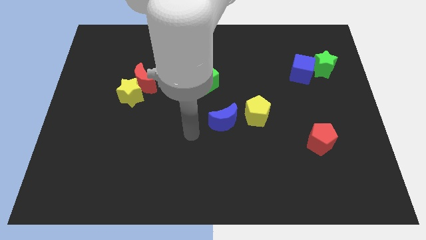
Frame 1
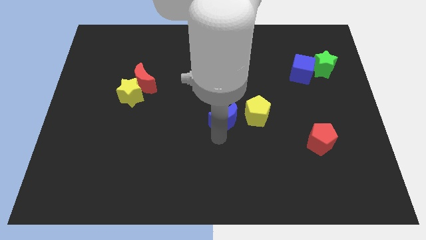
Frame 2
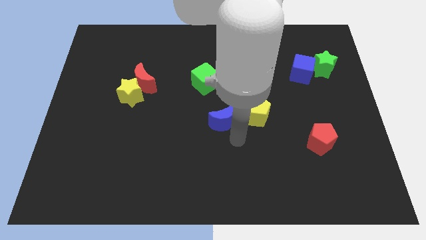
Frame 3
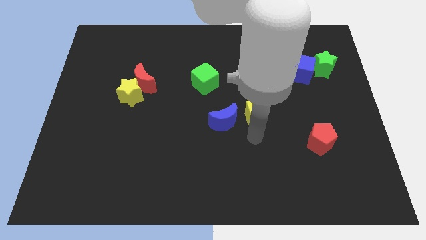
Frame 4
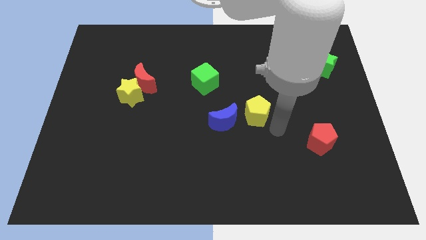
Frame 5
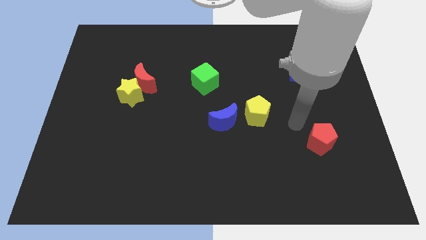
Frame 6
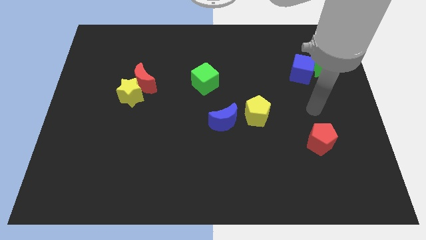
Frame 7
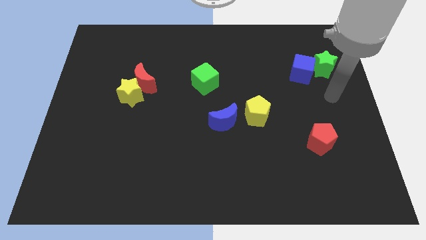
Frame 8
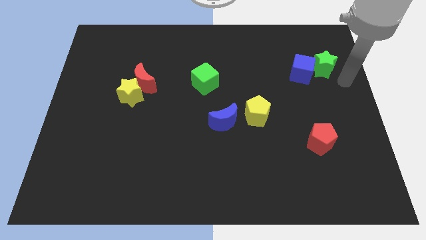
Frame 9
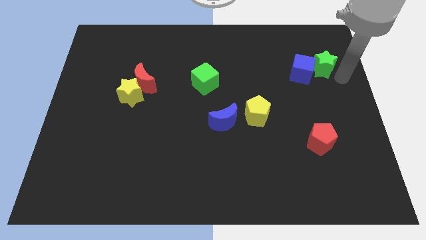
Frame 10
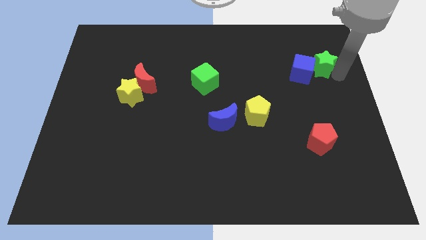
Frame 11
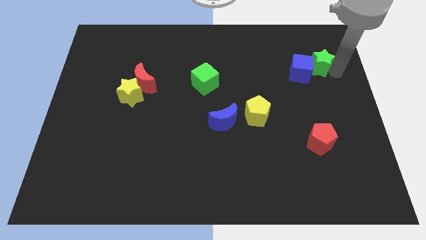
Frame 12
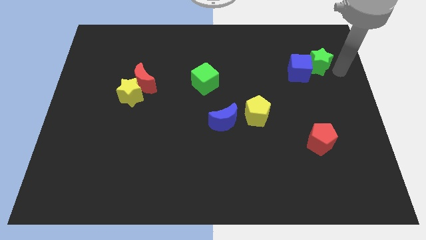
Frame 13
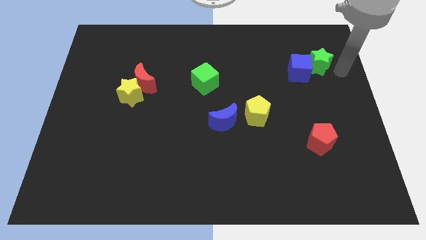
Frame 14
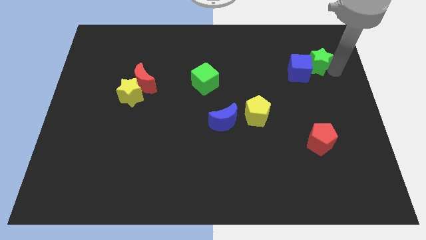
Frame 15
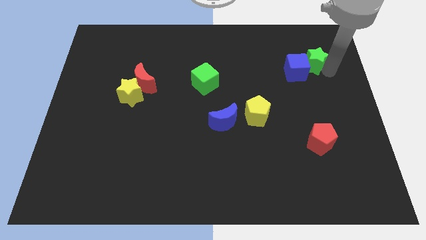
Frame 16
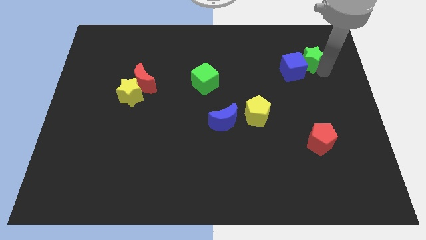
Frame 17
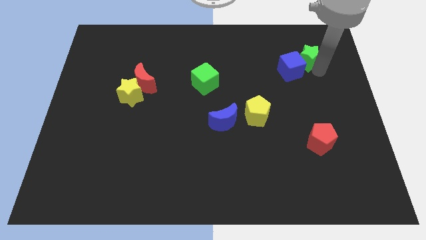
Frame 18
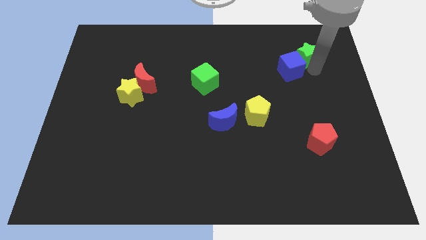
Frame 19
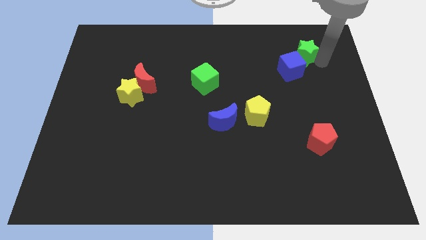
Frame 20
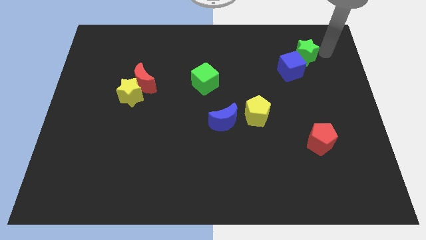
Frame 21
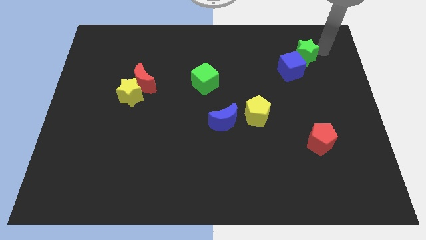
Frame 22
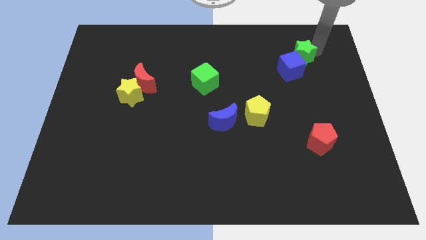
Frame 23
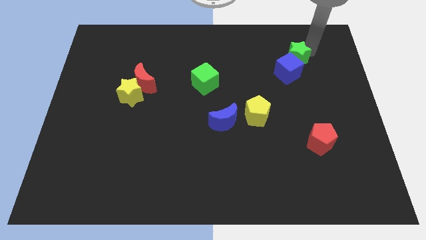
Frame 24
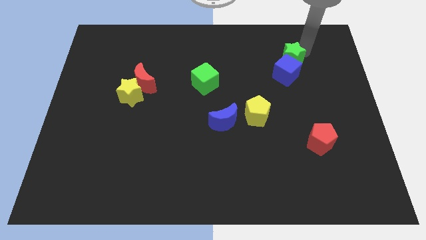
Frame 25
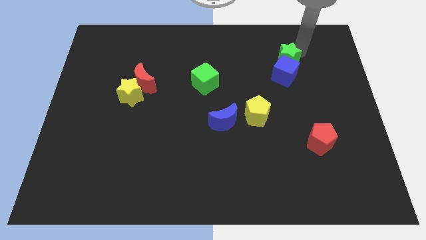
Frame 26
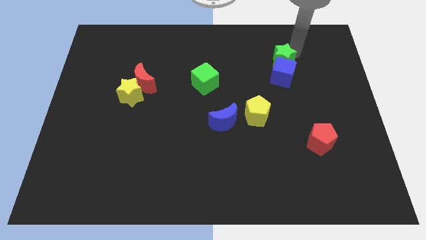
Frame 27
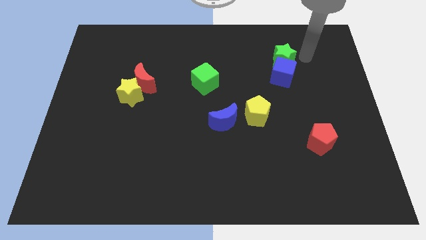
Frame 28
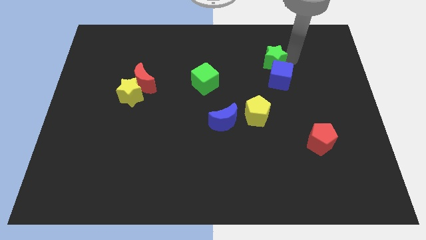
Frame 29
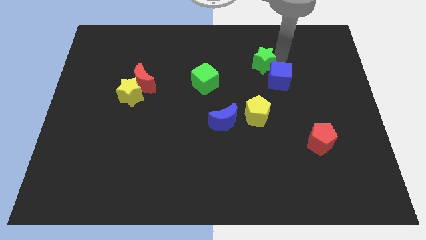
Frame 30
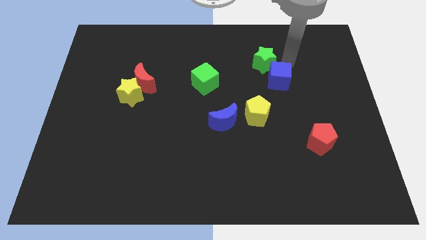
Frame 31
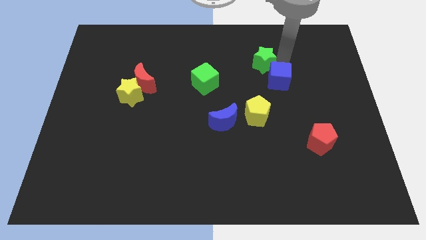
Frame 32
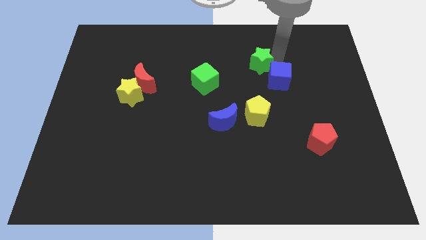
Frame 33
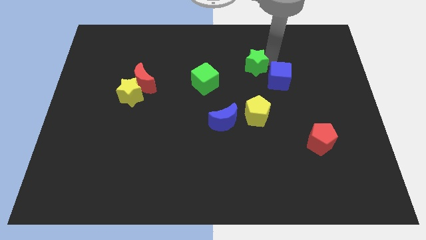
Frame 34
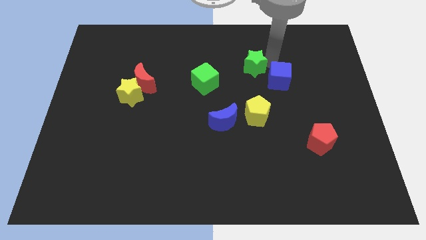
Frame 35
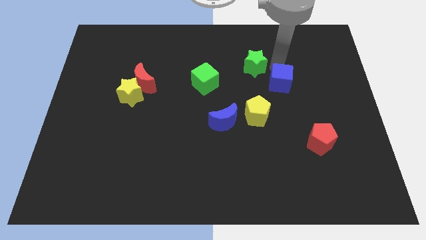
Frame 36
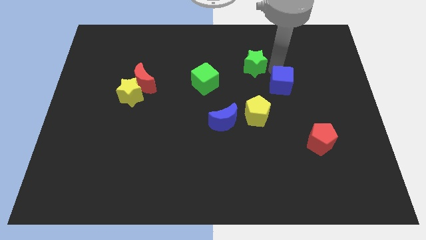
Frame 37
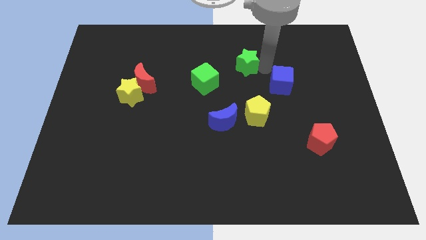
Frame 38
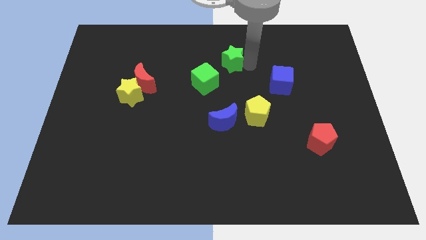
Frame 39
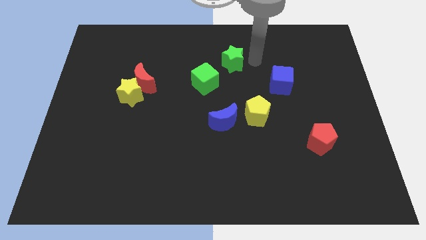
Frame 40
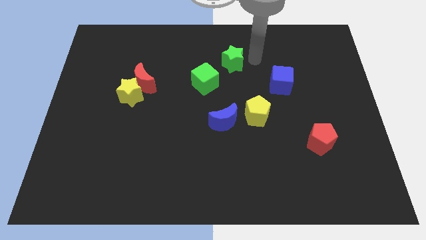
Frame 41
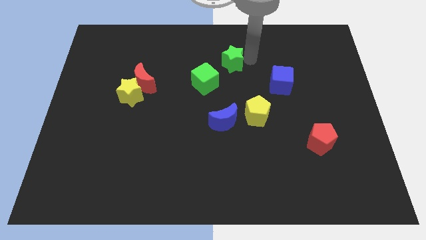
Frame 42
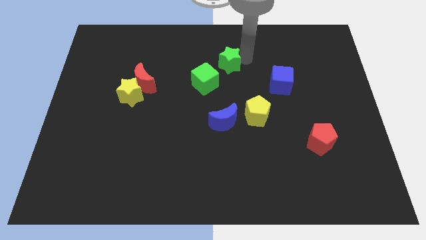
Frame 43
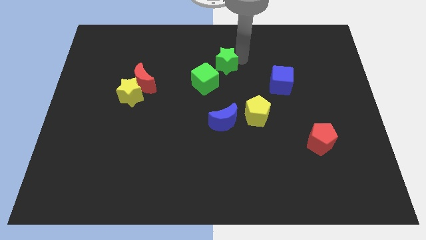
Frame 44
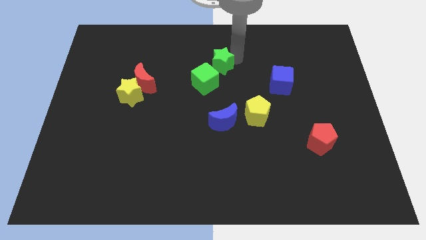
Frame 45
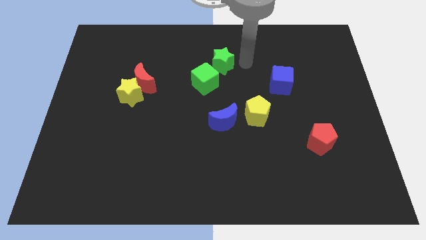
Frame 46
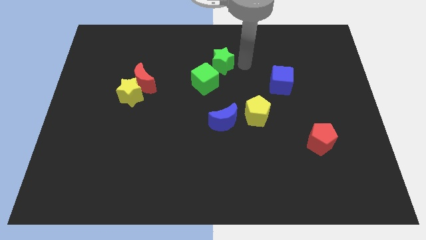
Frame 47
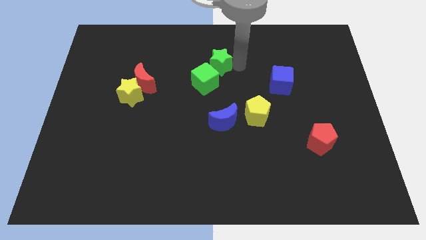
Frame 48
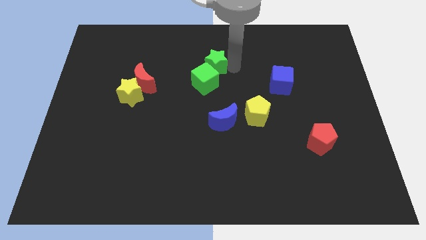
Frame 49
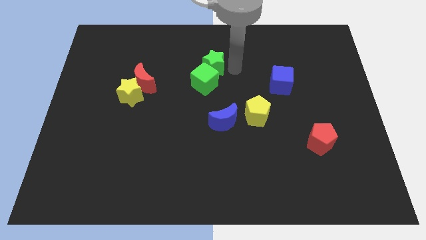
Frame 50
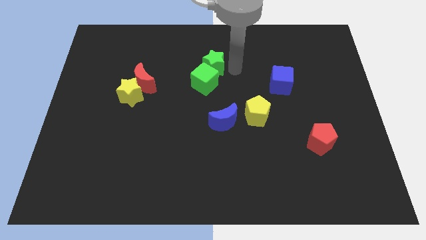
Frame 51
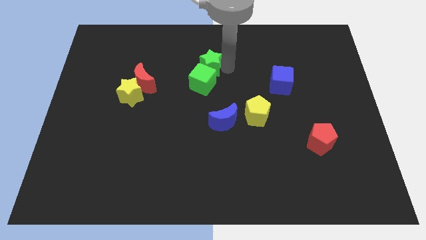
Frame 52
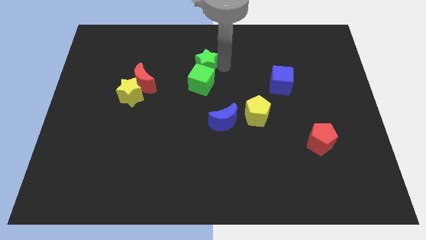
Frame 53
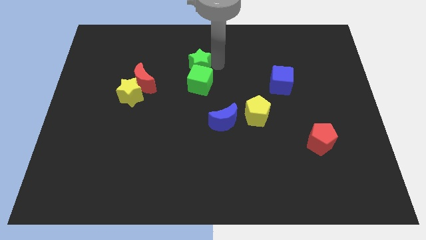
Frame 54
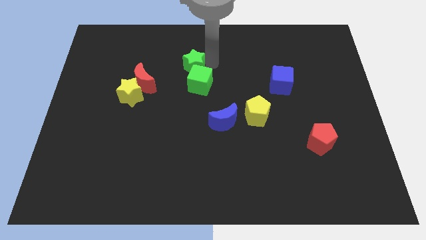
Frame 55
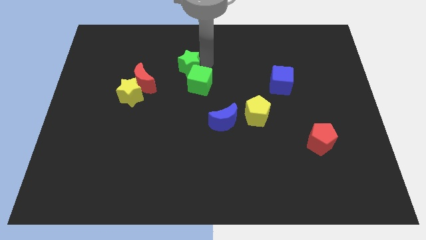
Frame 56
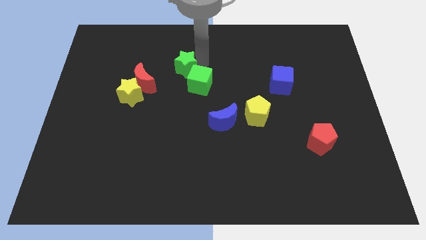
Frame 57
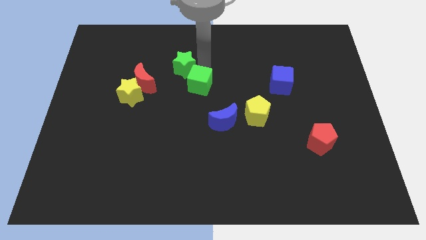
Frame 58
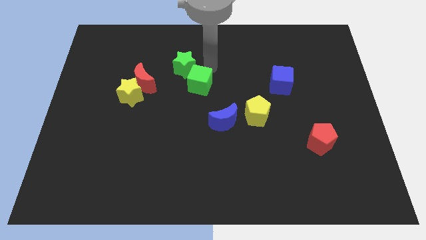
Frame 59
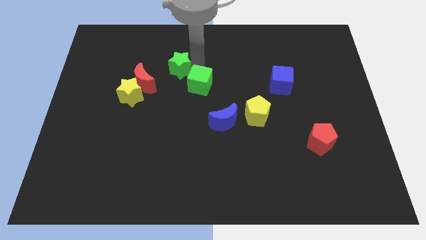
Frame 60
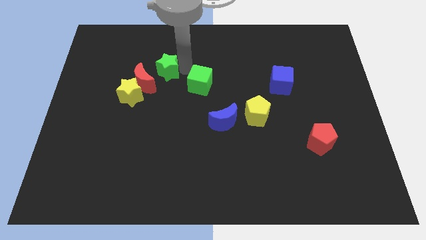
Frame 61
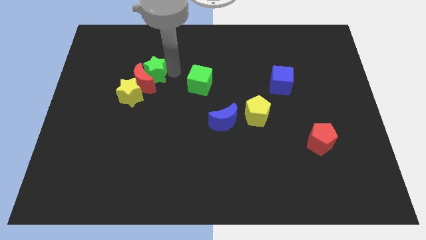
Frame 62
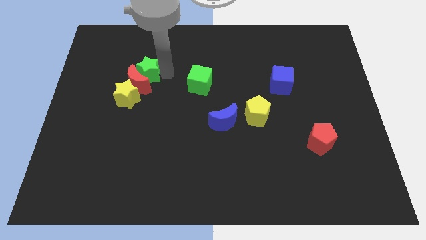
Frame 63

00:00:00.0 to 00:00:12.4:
push the green star to the top side of the yellow star

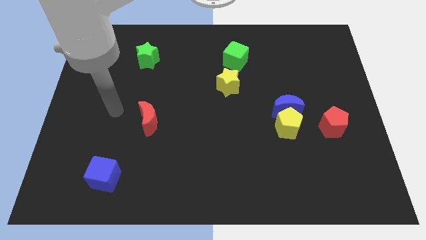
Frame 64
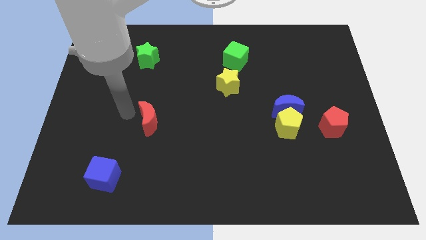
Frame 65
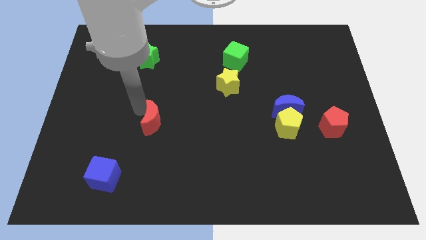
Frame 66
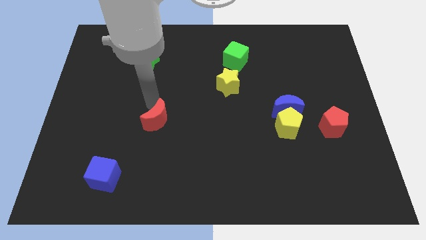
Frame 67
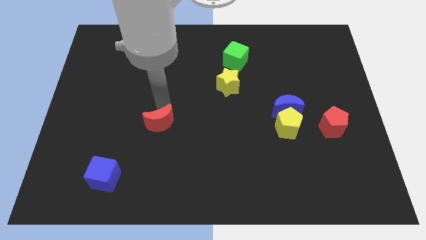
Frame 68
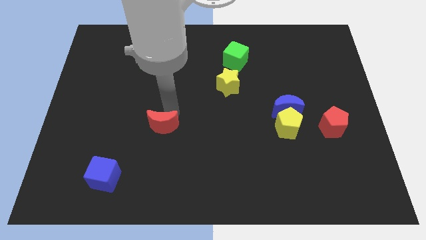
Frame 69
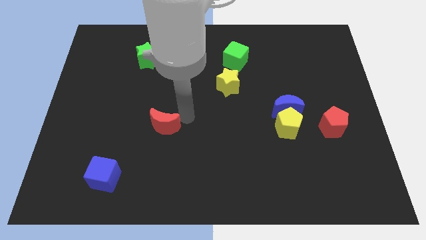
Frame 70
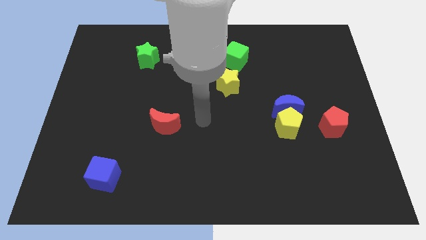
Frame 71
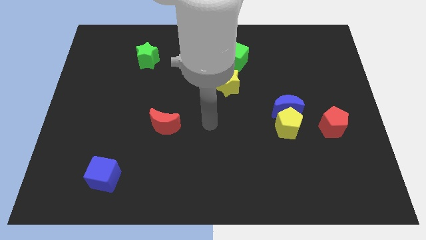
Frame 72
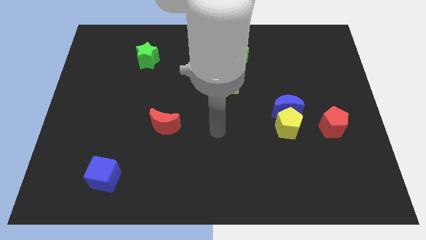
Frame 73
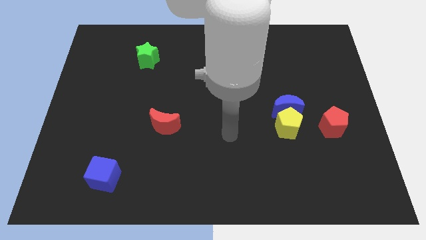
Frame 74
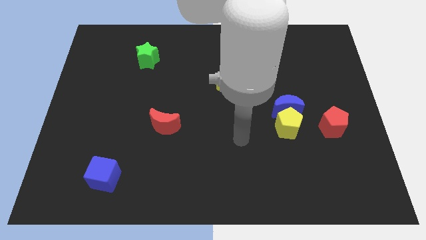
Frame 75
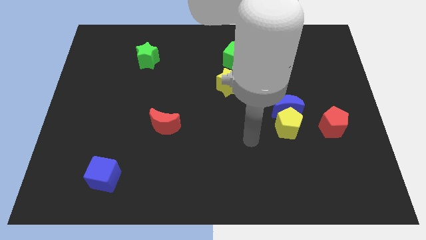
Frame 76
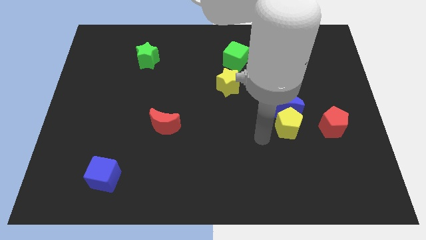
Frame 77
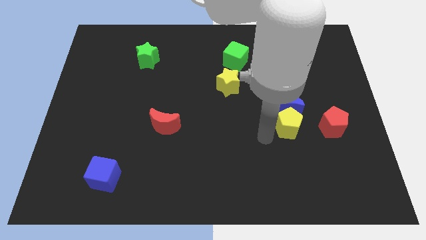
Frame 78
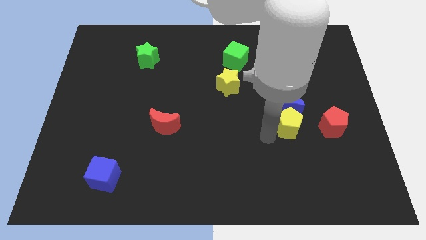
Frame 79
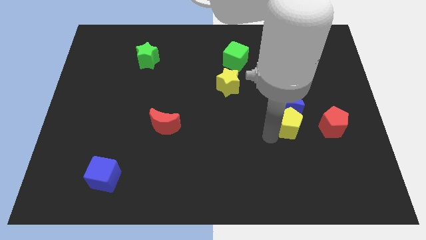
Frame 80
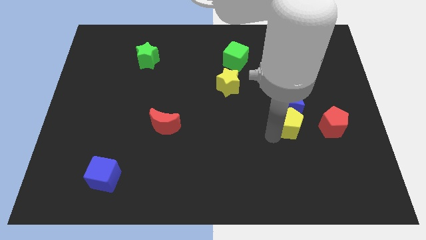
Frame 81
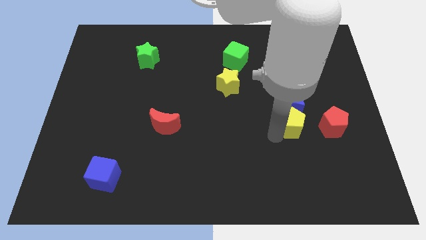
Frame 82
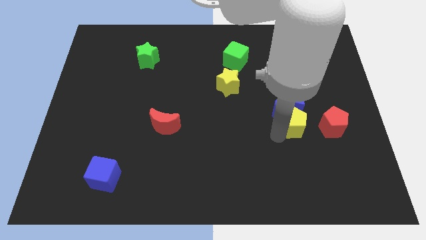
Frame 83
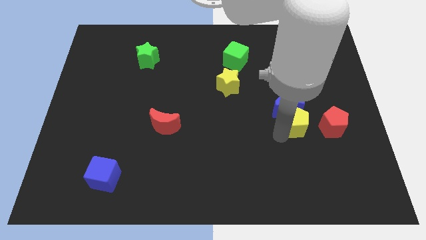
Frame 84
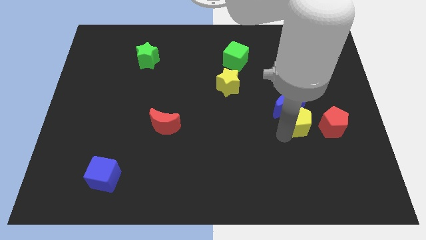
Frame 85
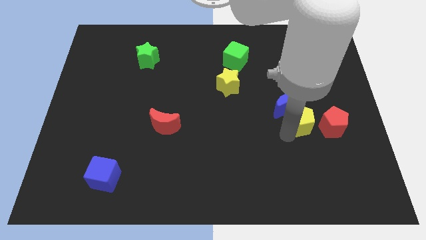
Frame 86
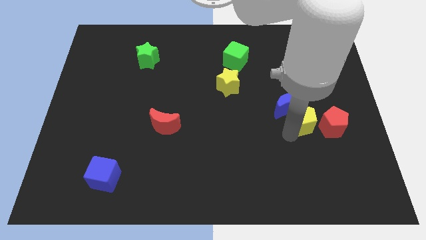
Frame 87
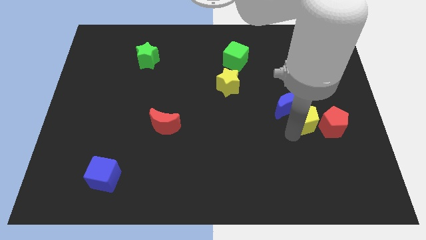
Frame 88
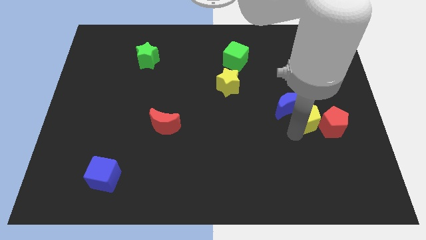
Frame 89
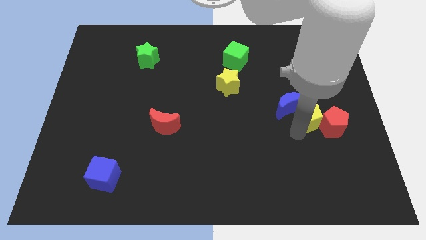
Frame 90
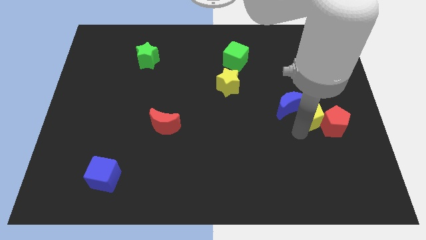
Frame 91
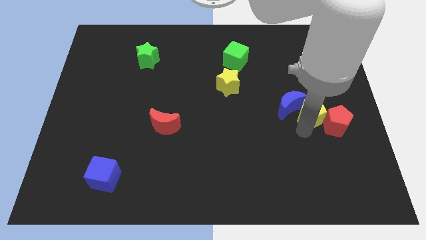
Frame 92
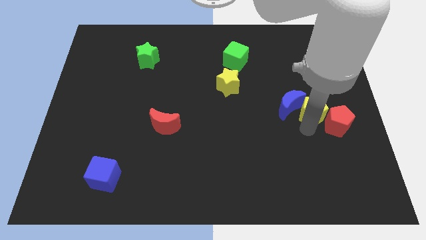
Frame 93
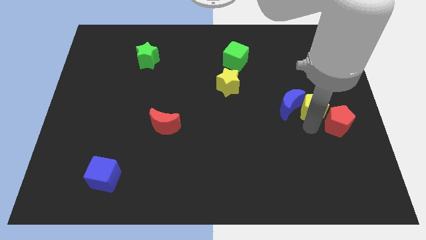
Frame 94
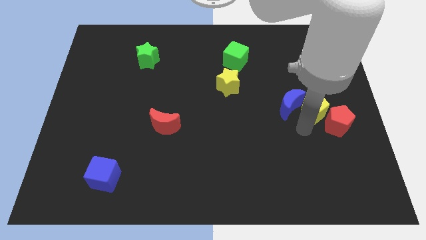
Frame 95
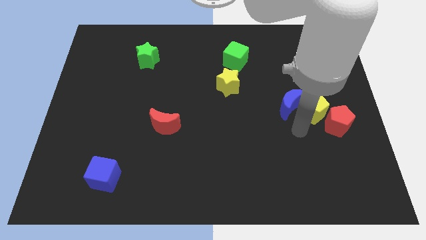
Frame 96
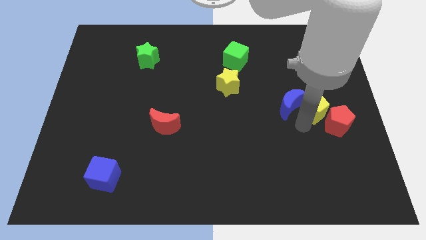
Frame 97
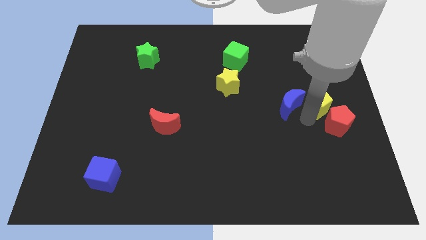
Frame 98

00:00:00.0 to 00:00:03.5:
put the yellow pentagon above the red pentagon
